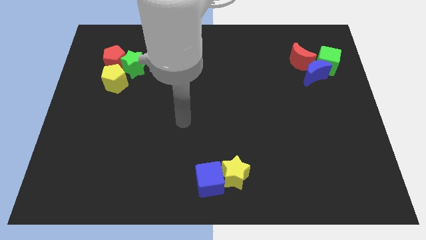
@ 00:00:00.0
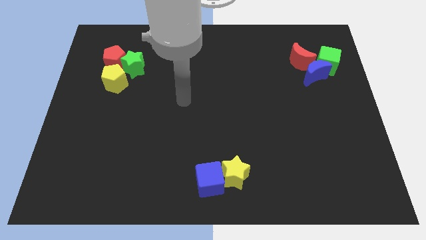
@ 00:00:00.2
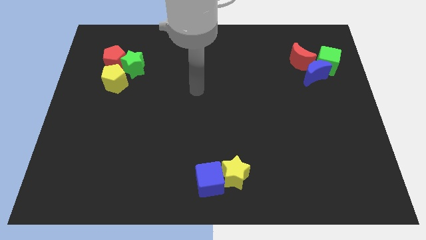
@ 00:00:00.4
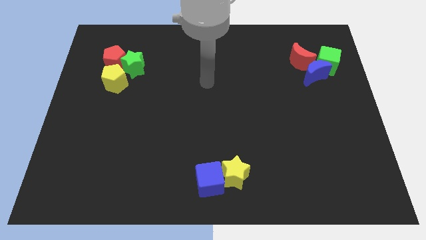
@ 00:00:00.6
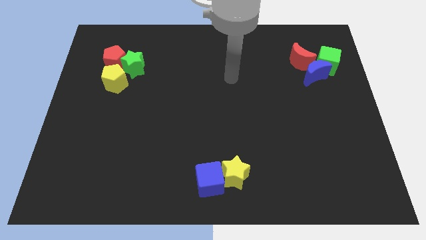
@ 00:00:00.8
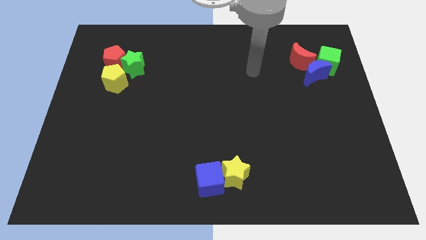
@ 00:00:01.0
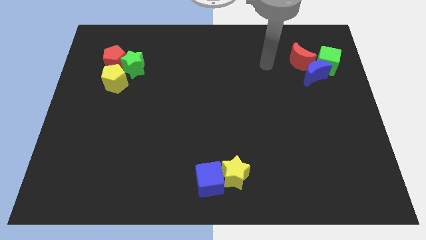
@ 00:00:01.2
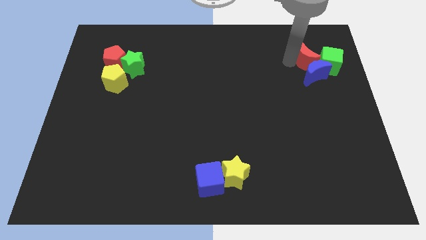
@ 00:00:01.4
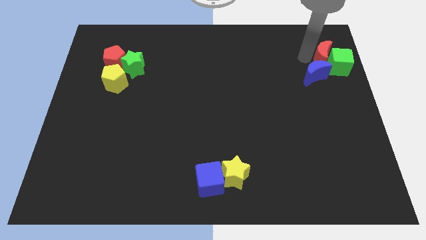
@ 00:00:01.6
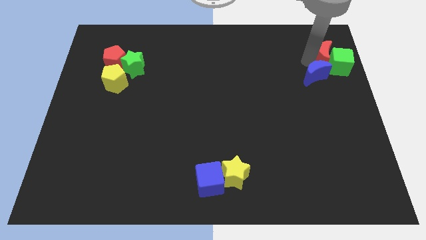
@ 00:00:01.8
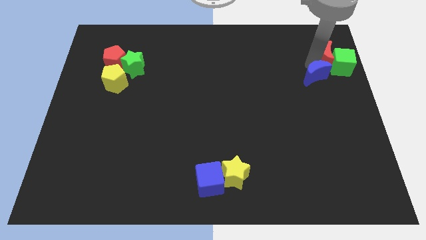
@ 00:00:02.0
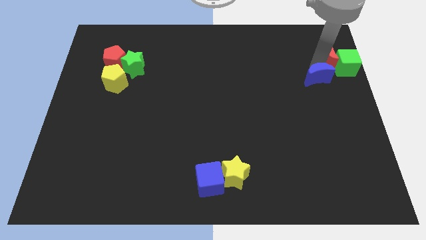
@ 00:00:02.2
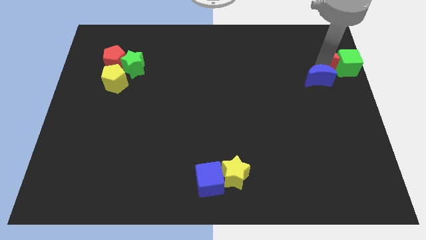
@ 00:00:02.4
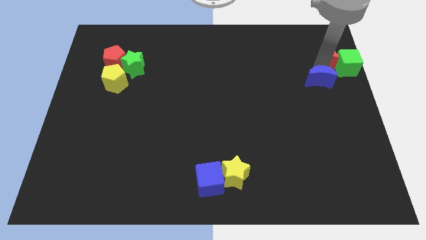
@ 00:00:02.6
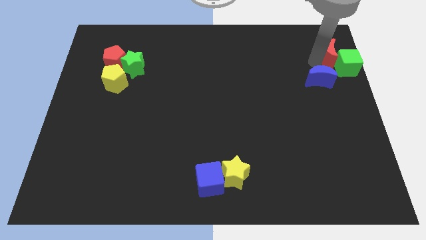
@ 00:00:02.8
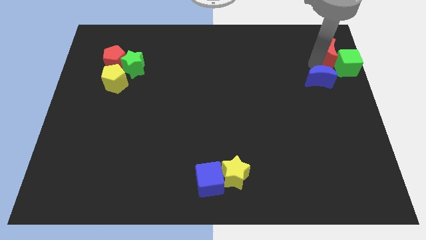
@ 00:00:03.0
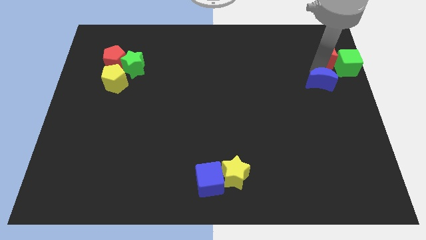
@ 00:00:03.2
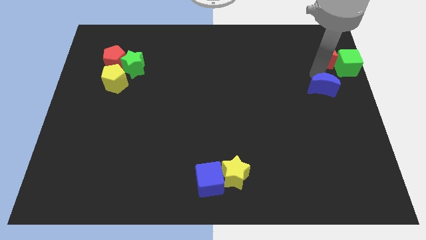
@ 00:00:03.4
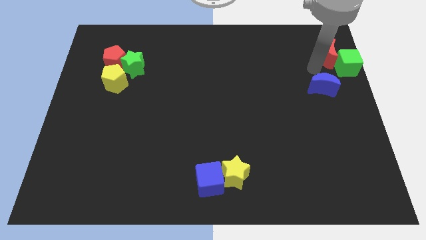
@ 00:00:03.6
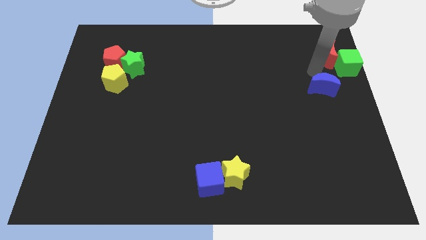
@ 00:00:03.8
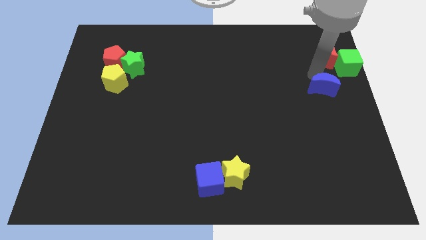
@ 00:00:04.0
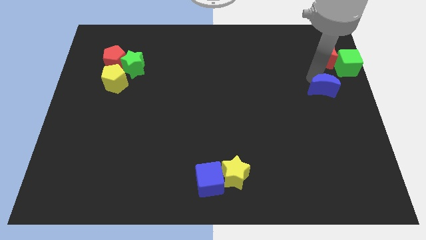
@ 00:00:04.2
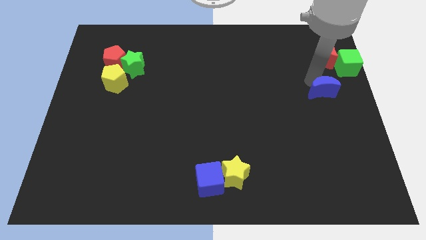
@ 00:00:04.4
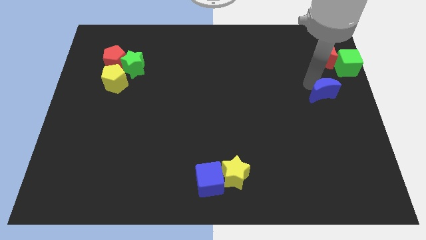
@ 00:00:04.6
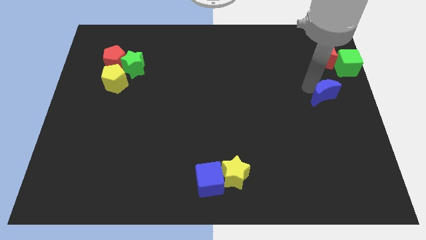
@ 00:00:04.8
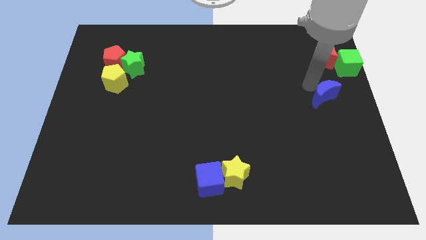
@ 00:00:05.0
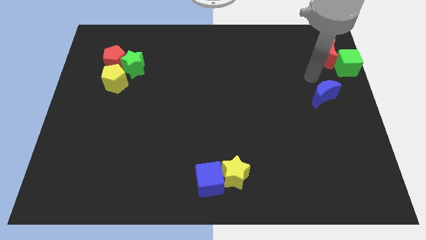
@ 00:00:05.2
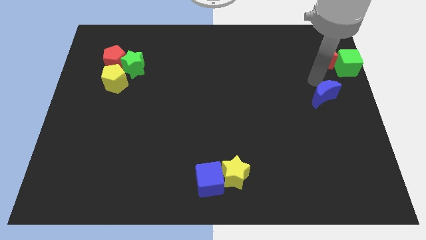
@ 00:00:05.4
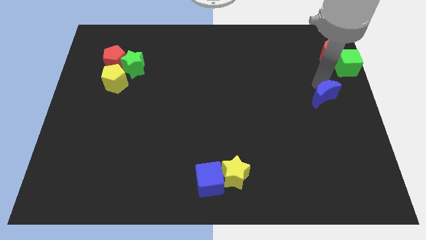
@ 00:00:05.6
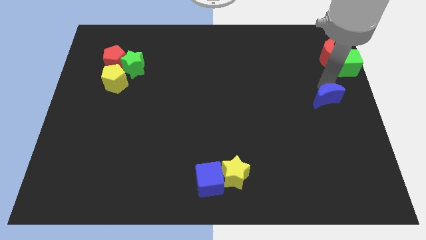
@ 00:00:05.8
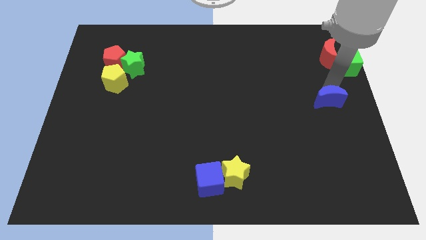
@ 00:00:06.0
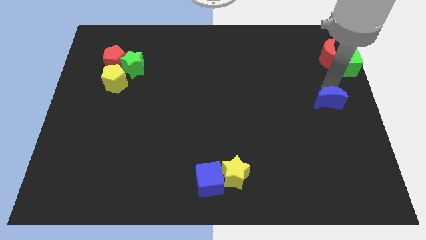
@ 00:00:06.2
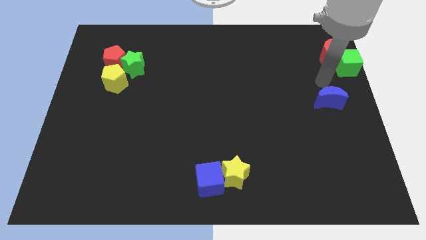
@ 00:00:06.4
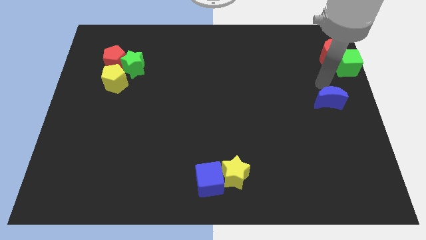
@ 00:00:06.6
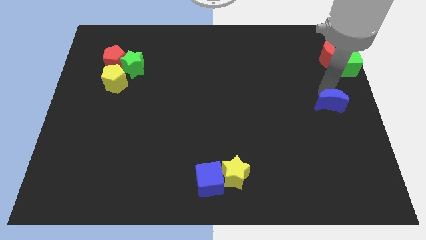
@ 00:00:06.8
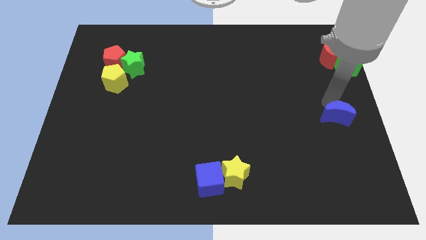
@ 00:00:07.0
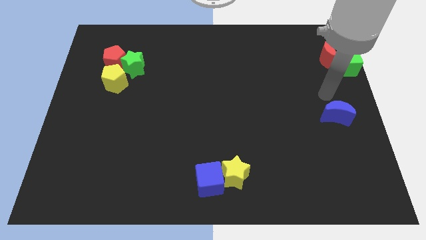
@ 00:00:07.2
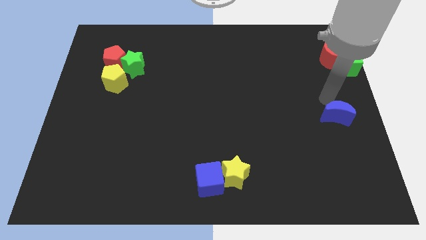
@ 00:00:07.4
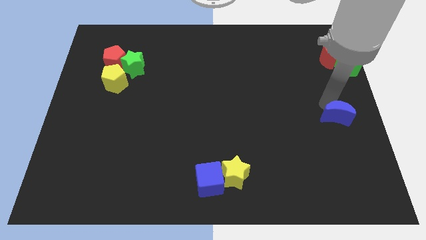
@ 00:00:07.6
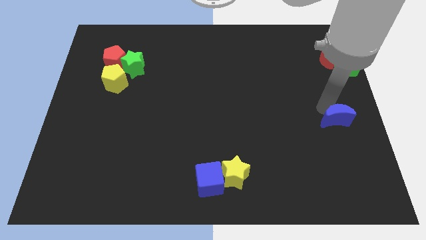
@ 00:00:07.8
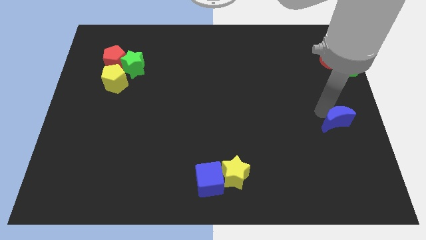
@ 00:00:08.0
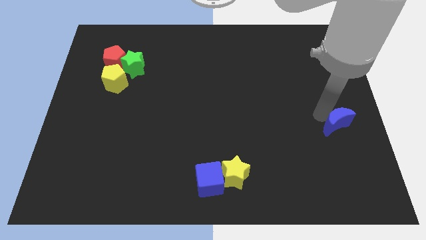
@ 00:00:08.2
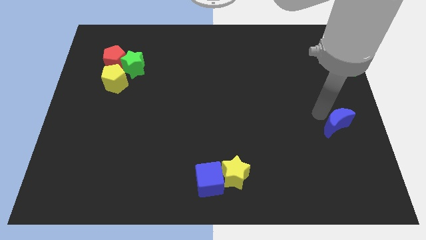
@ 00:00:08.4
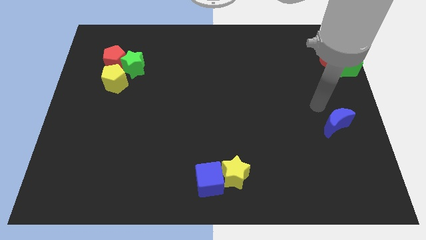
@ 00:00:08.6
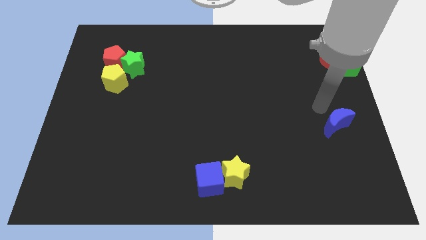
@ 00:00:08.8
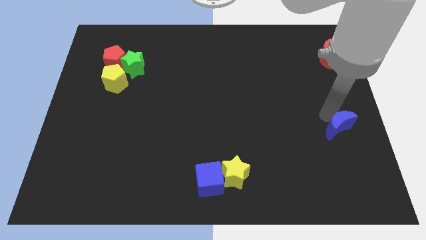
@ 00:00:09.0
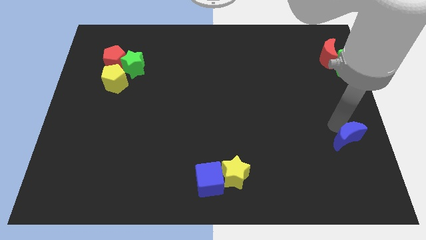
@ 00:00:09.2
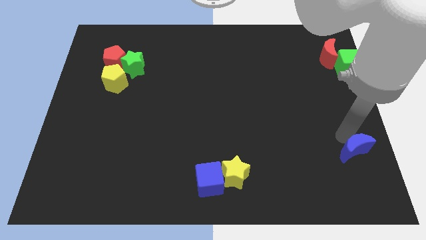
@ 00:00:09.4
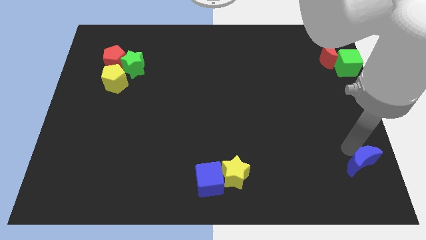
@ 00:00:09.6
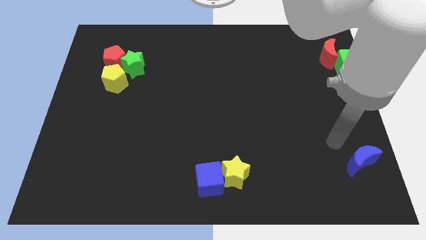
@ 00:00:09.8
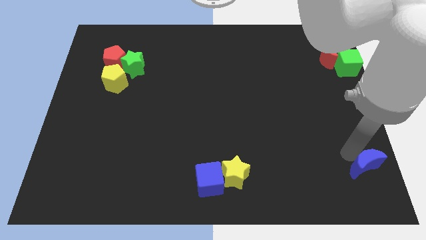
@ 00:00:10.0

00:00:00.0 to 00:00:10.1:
slide the blue moon to the bottom right

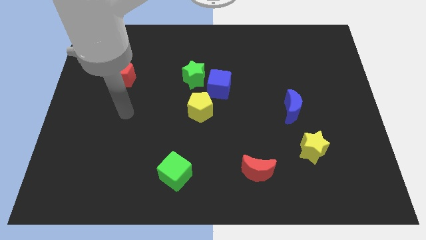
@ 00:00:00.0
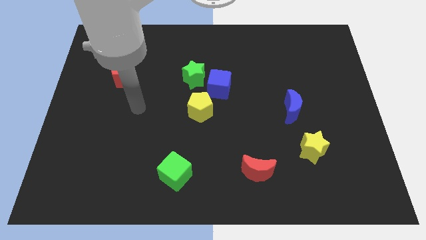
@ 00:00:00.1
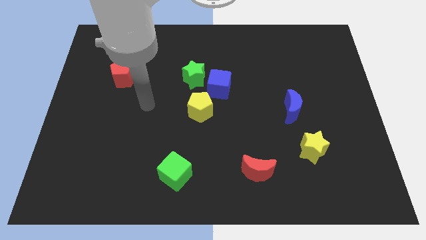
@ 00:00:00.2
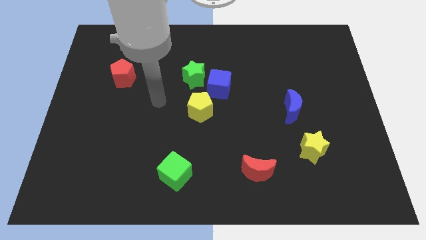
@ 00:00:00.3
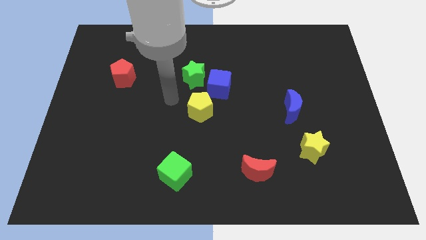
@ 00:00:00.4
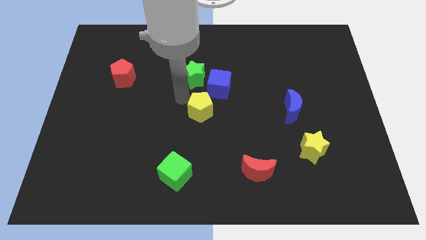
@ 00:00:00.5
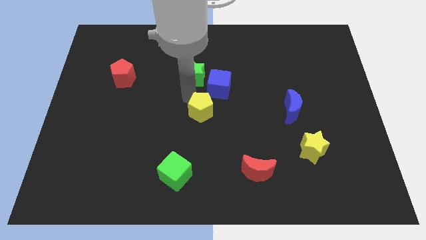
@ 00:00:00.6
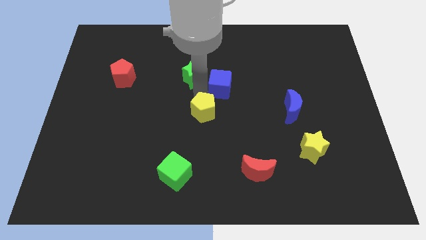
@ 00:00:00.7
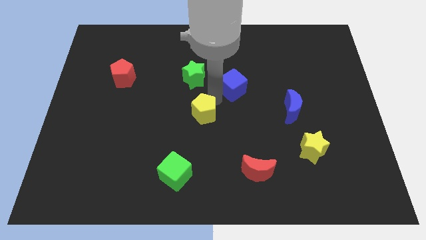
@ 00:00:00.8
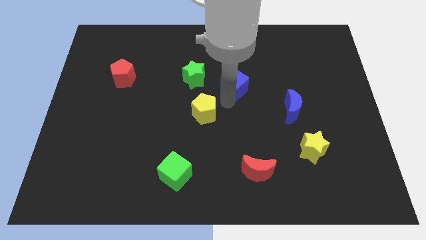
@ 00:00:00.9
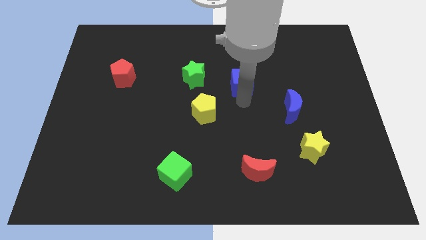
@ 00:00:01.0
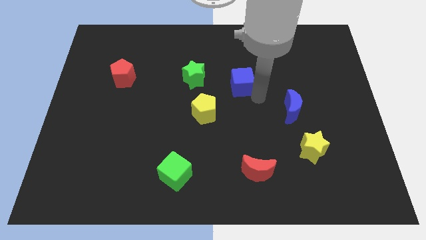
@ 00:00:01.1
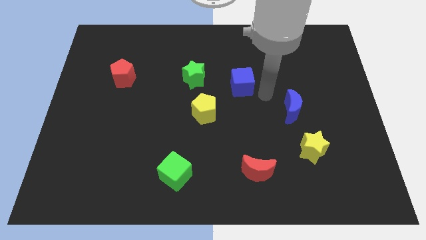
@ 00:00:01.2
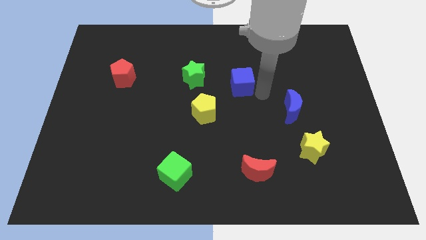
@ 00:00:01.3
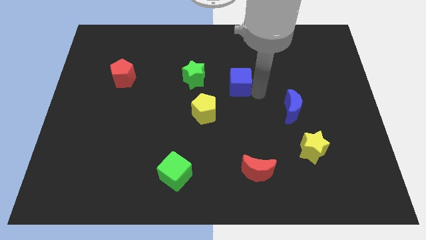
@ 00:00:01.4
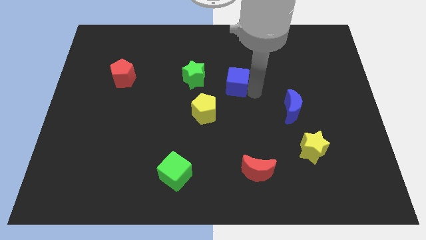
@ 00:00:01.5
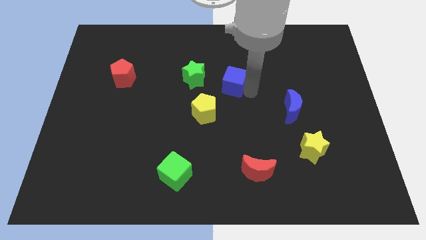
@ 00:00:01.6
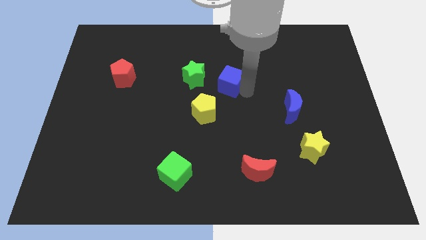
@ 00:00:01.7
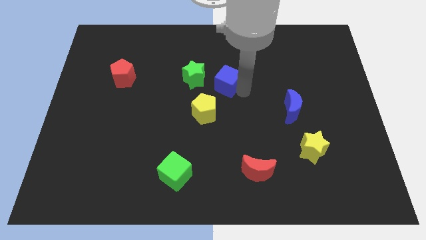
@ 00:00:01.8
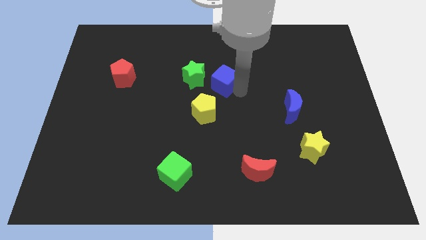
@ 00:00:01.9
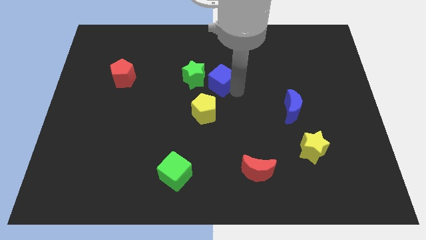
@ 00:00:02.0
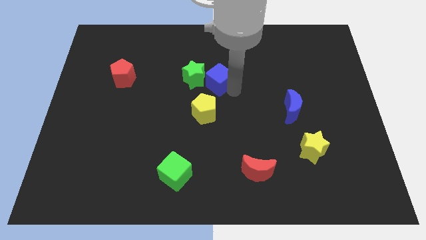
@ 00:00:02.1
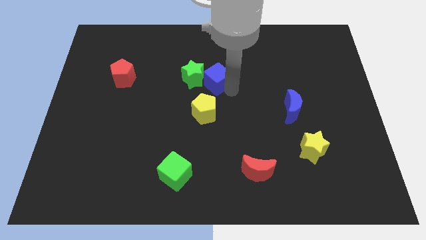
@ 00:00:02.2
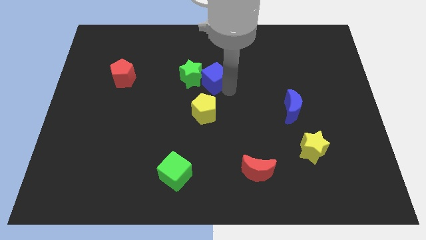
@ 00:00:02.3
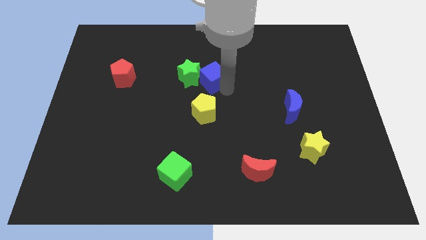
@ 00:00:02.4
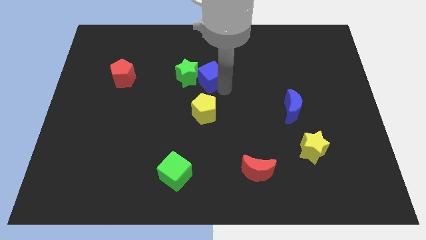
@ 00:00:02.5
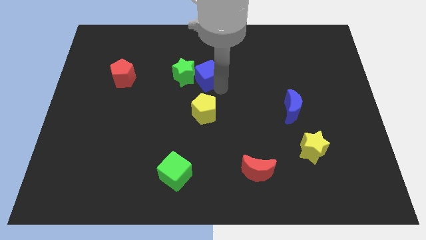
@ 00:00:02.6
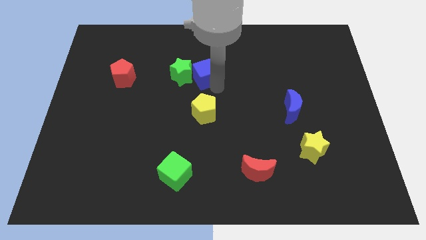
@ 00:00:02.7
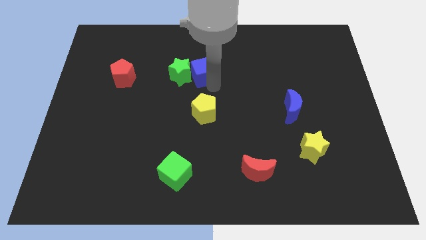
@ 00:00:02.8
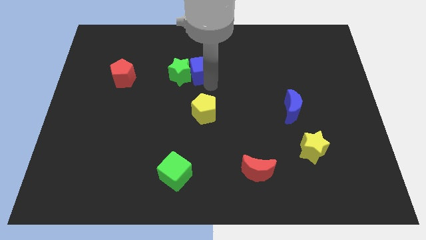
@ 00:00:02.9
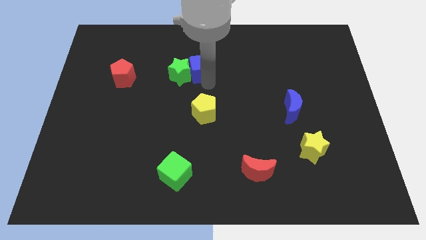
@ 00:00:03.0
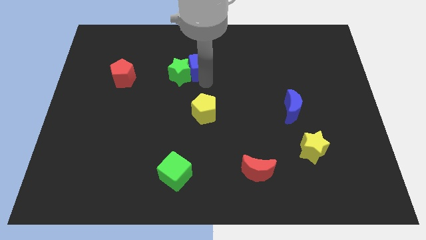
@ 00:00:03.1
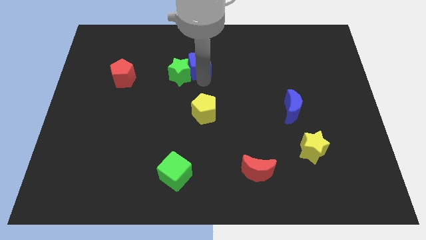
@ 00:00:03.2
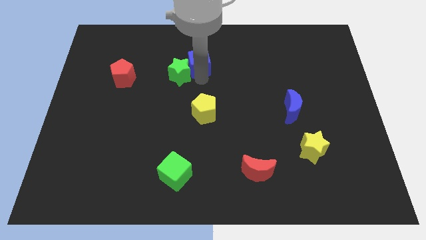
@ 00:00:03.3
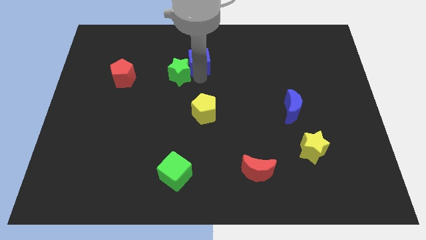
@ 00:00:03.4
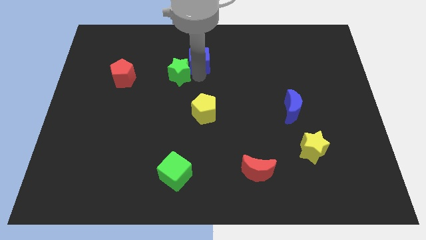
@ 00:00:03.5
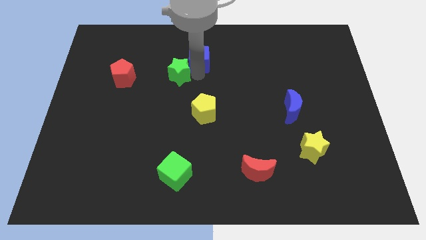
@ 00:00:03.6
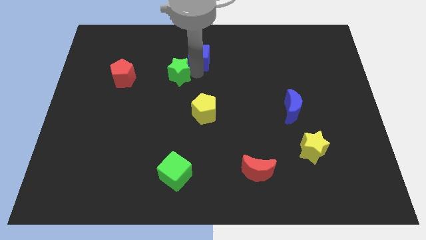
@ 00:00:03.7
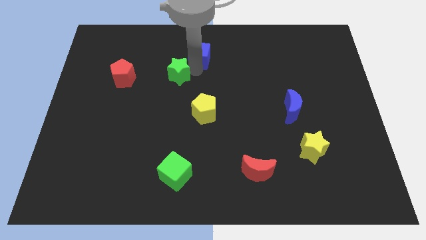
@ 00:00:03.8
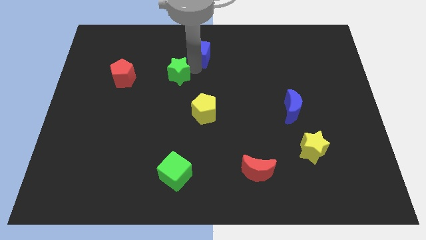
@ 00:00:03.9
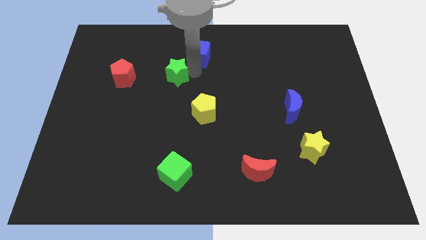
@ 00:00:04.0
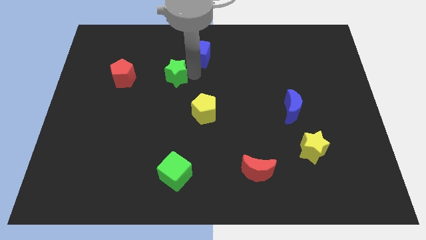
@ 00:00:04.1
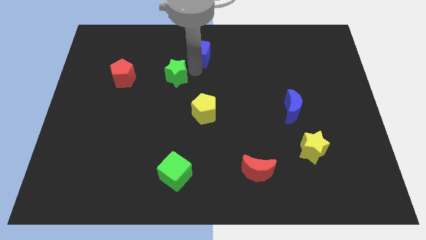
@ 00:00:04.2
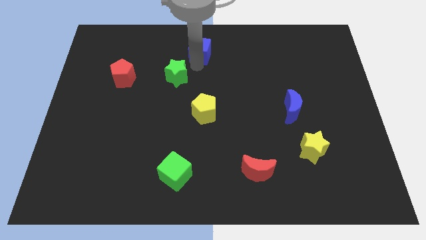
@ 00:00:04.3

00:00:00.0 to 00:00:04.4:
move the blue cube to the top
